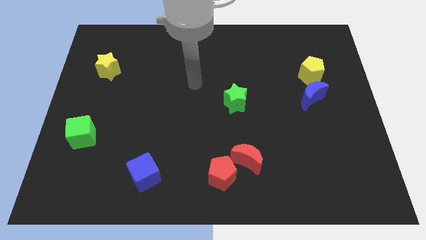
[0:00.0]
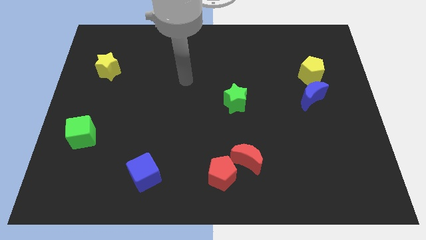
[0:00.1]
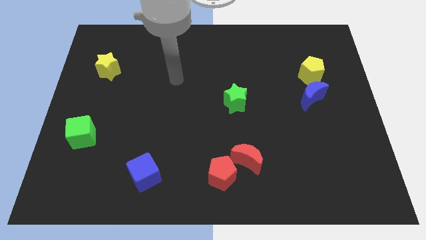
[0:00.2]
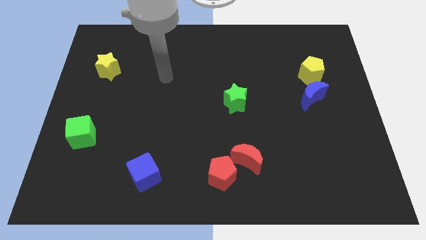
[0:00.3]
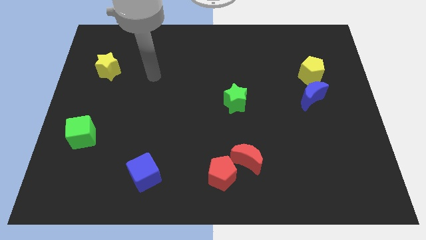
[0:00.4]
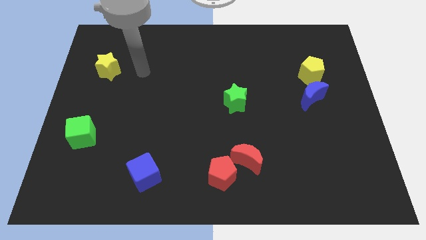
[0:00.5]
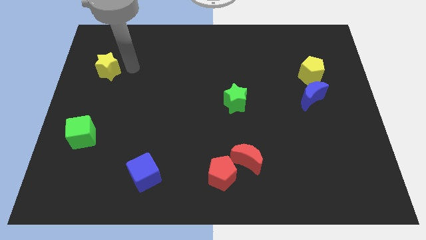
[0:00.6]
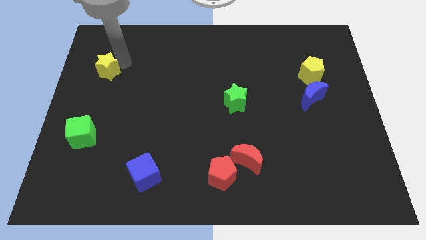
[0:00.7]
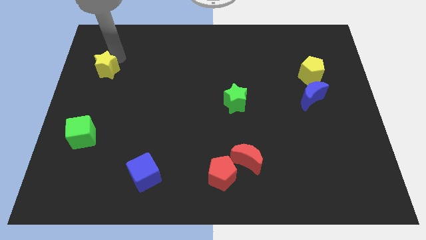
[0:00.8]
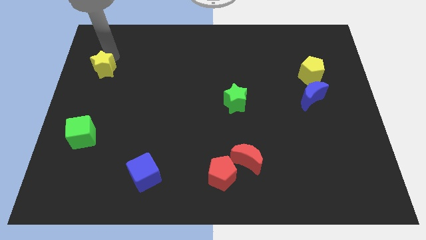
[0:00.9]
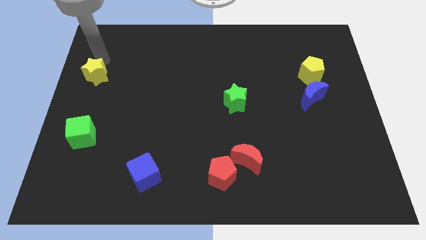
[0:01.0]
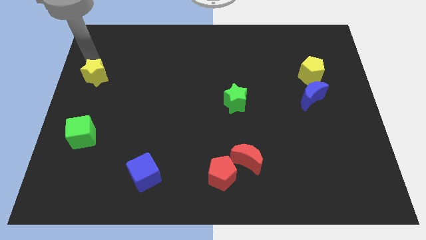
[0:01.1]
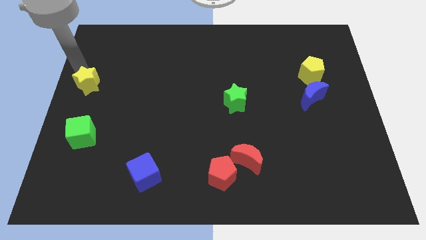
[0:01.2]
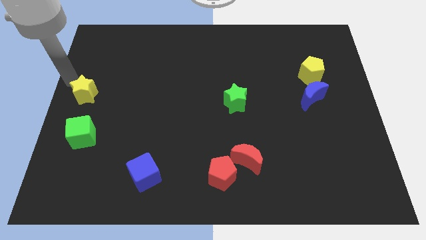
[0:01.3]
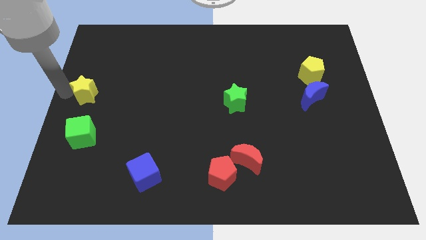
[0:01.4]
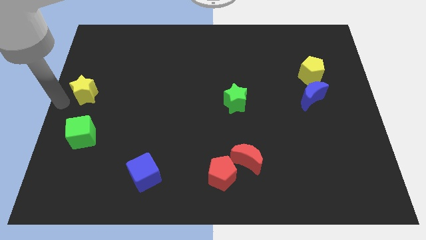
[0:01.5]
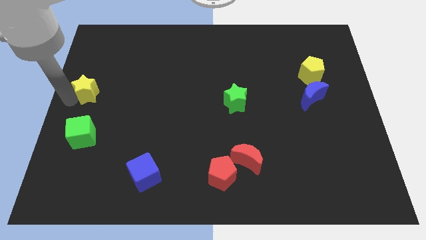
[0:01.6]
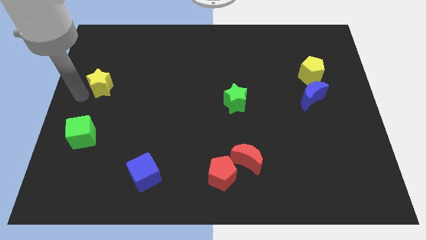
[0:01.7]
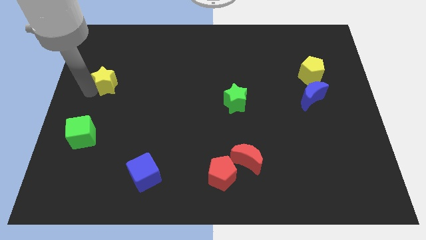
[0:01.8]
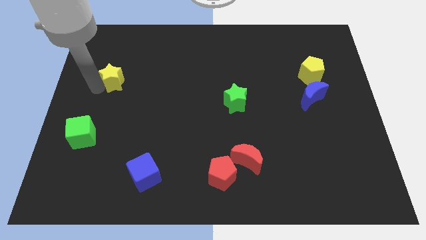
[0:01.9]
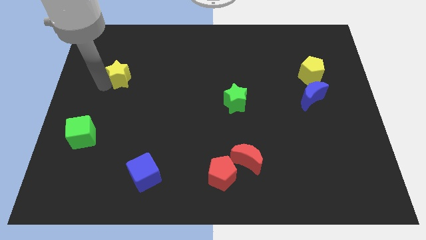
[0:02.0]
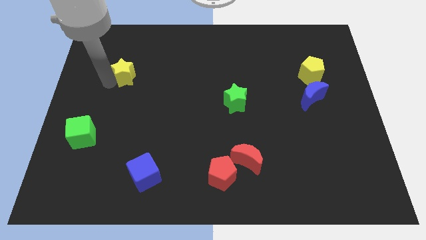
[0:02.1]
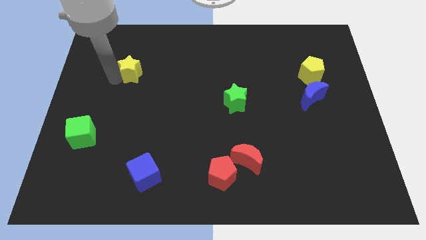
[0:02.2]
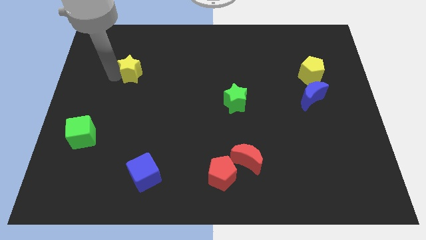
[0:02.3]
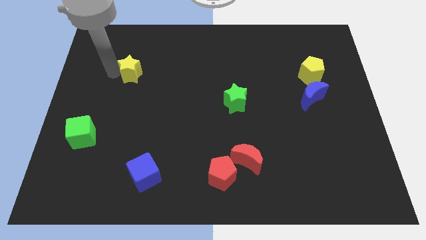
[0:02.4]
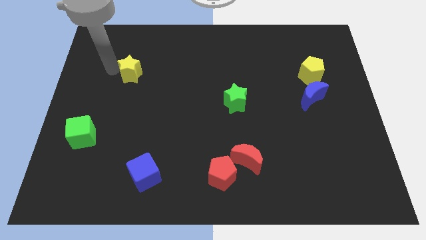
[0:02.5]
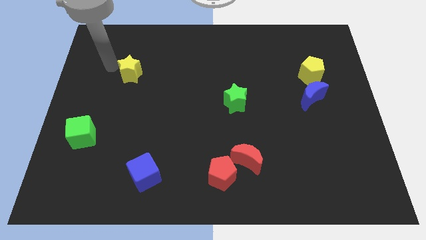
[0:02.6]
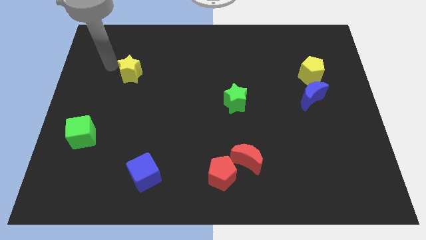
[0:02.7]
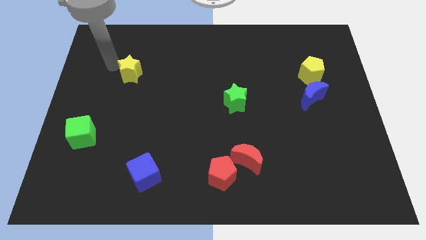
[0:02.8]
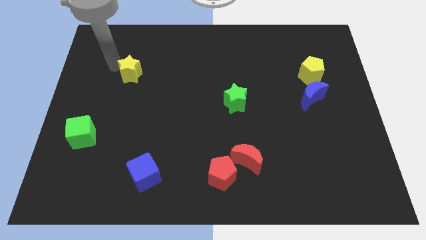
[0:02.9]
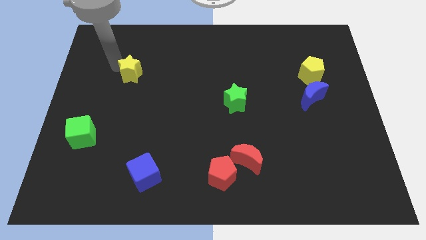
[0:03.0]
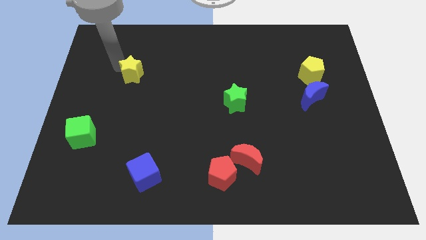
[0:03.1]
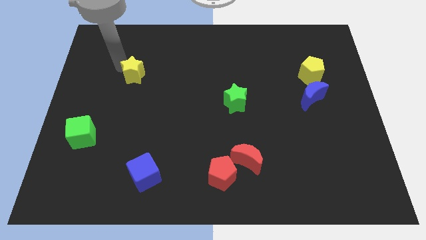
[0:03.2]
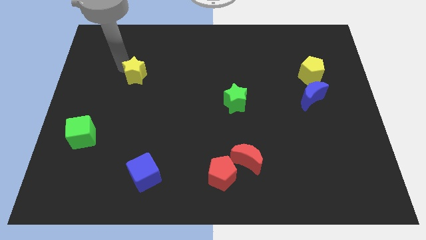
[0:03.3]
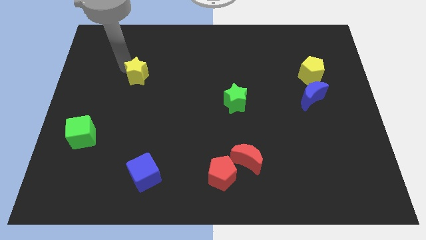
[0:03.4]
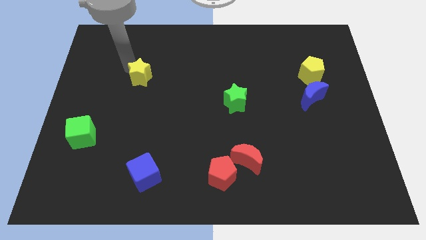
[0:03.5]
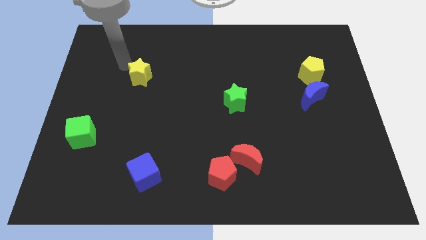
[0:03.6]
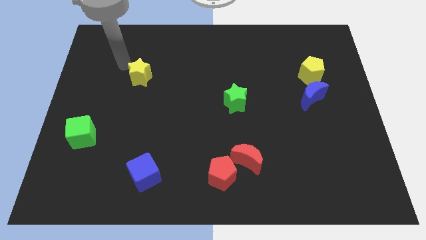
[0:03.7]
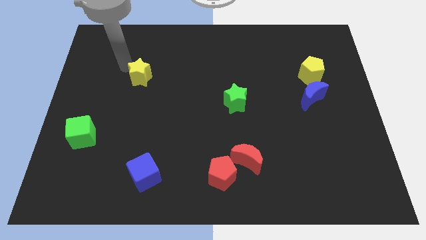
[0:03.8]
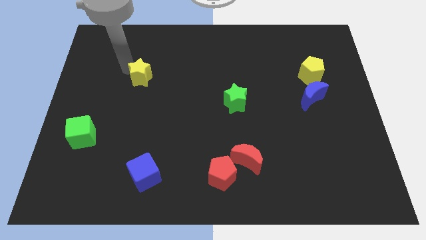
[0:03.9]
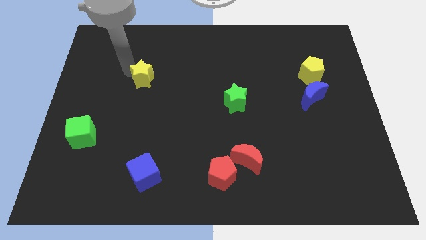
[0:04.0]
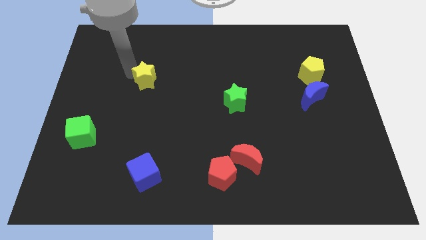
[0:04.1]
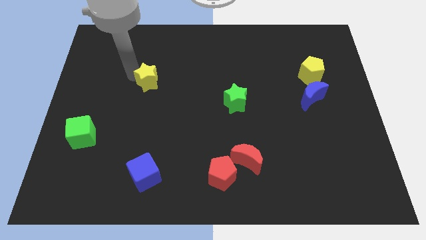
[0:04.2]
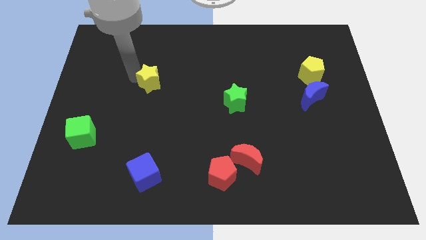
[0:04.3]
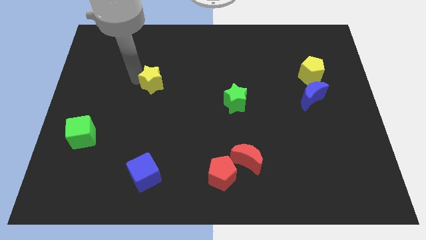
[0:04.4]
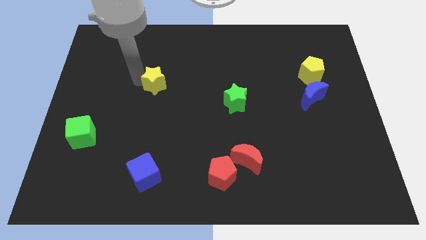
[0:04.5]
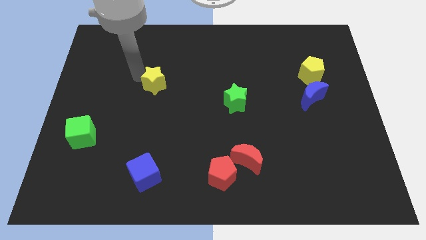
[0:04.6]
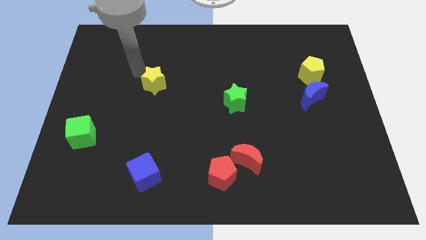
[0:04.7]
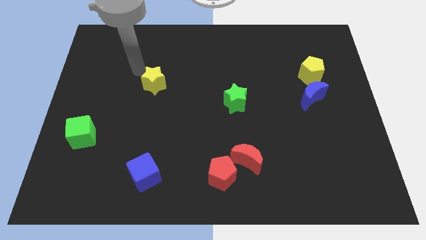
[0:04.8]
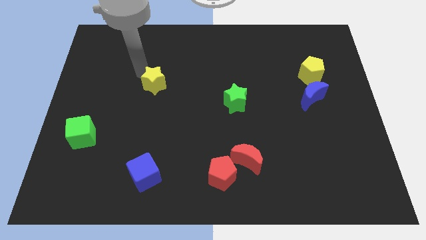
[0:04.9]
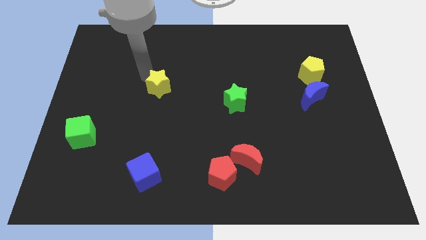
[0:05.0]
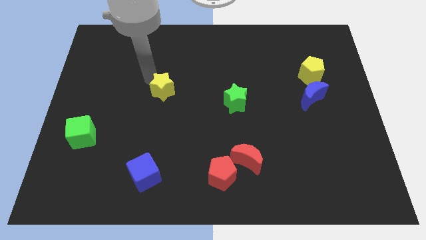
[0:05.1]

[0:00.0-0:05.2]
push the yellow star to the middle

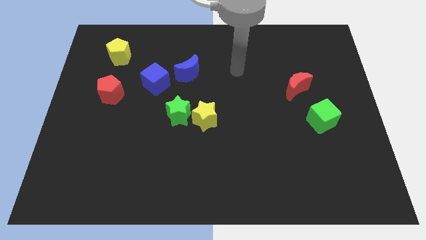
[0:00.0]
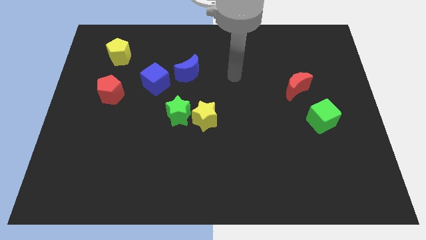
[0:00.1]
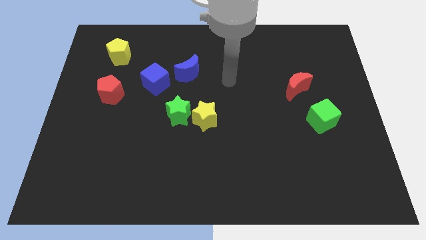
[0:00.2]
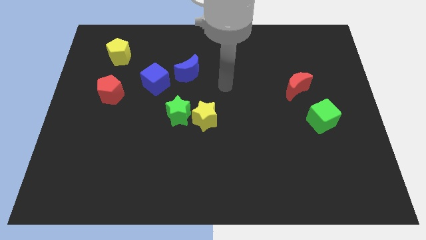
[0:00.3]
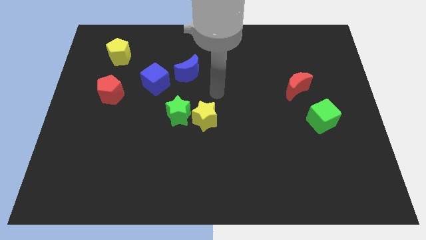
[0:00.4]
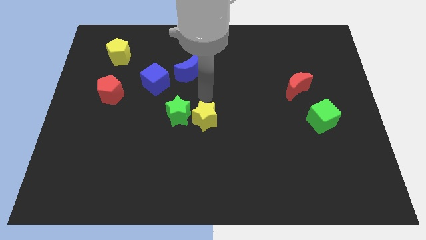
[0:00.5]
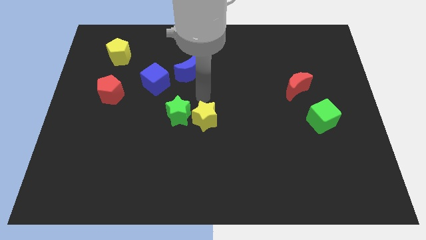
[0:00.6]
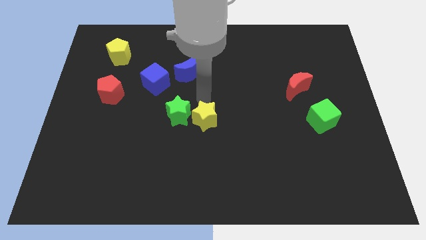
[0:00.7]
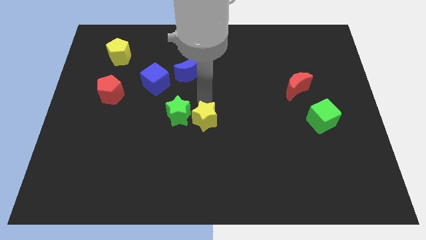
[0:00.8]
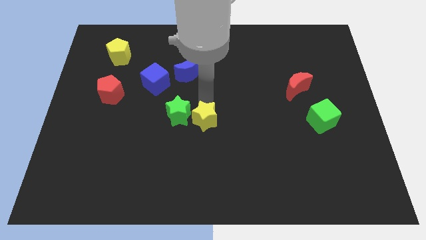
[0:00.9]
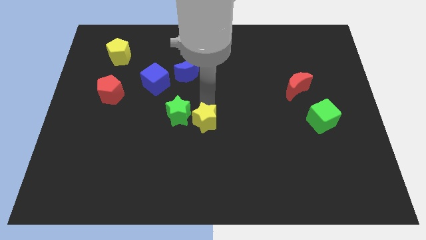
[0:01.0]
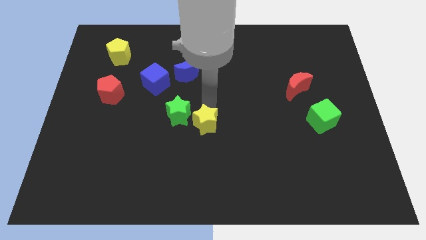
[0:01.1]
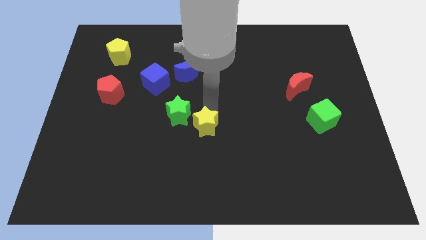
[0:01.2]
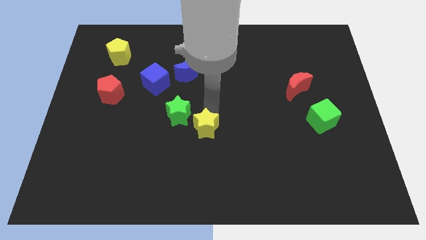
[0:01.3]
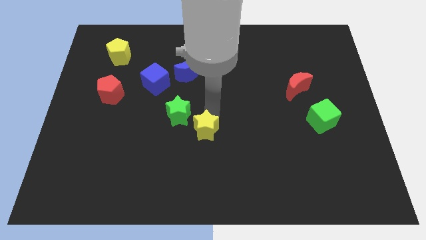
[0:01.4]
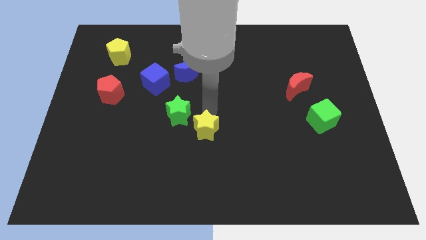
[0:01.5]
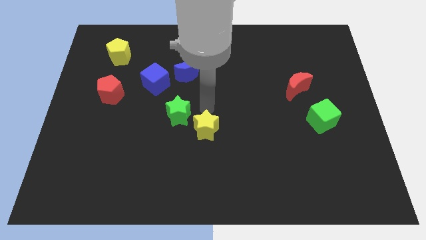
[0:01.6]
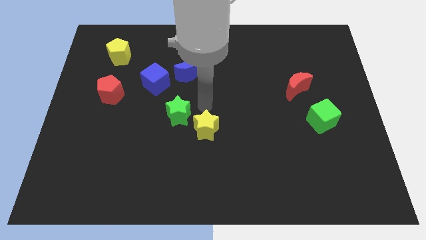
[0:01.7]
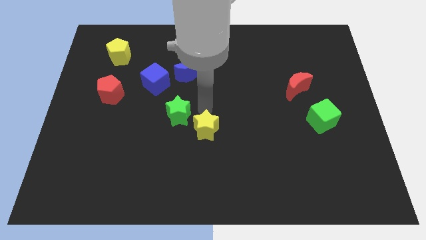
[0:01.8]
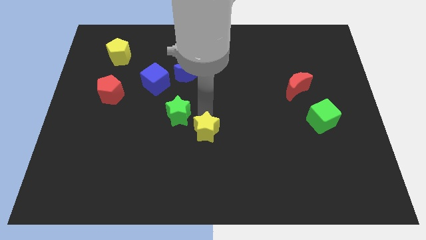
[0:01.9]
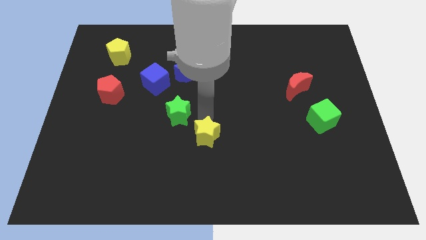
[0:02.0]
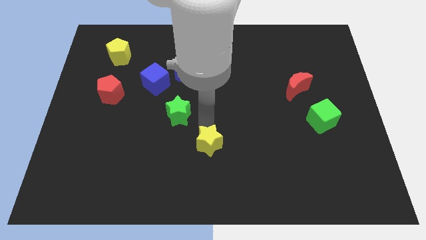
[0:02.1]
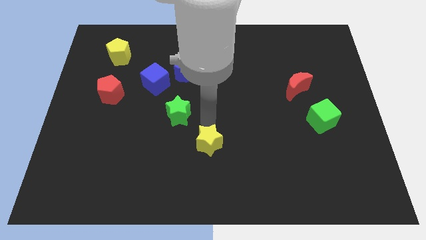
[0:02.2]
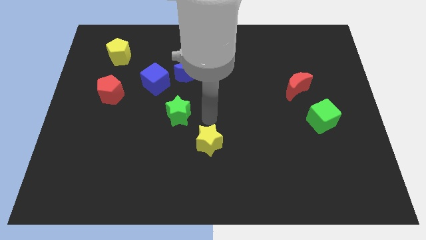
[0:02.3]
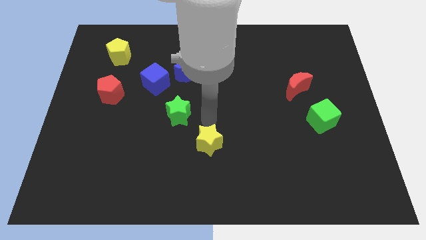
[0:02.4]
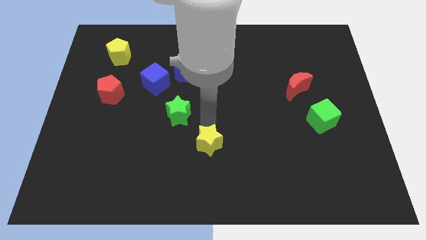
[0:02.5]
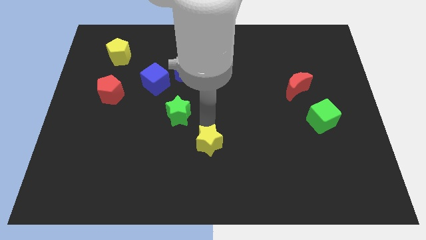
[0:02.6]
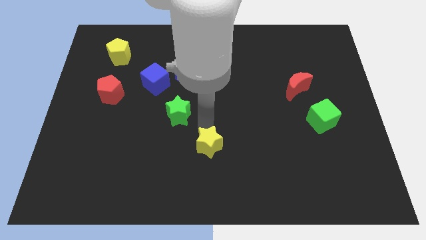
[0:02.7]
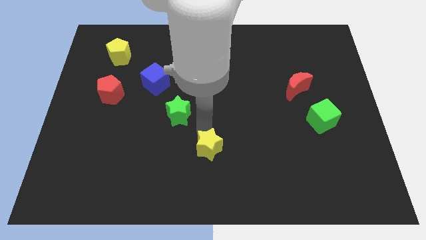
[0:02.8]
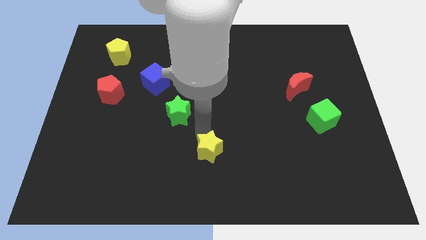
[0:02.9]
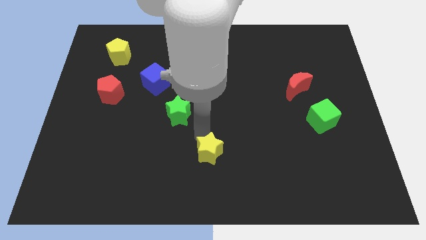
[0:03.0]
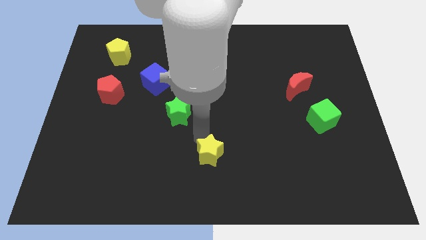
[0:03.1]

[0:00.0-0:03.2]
put the yellow star to the bottom side
